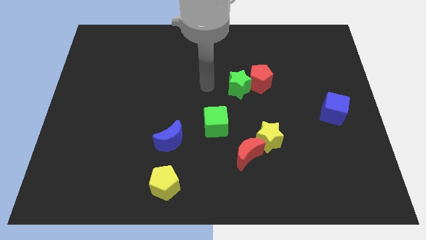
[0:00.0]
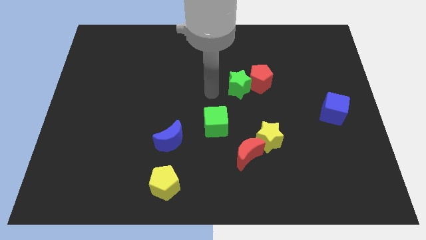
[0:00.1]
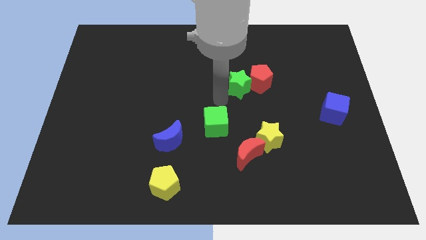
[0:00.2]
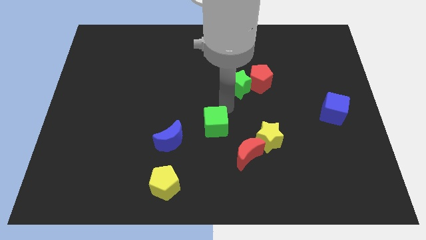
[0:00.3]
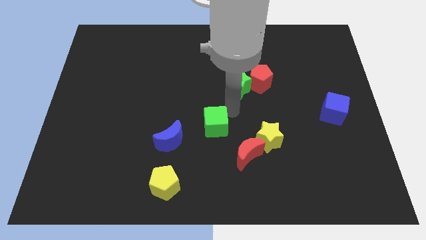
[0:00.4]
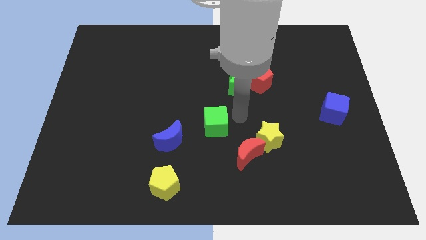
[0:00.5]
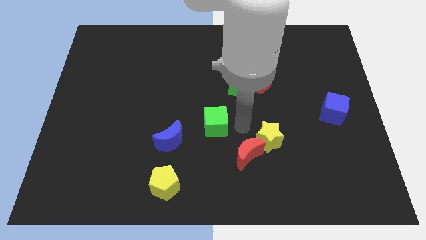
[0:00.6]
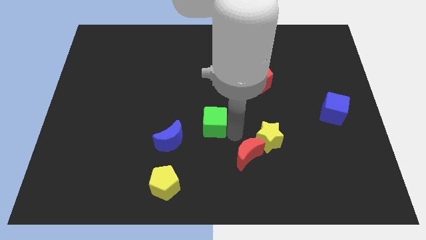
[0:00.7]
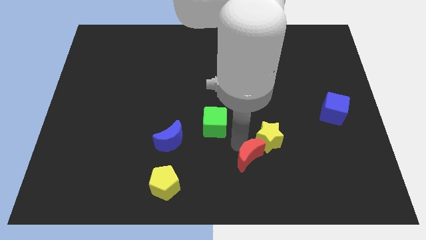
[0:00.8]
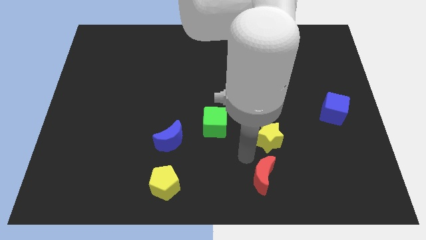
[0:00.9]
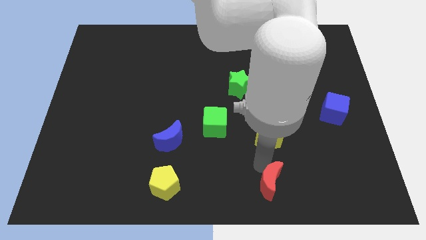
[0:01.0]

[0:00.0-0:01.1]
separate the yellow star from the red moon

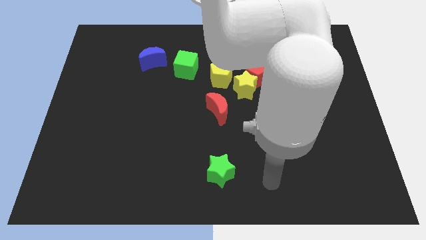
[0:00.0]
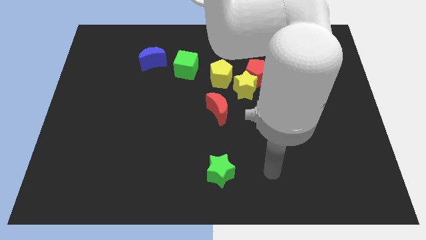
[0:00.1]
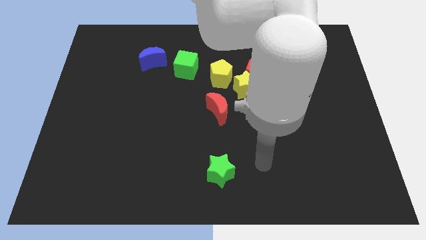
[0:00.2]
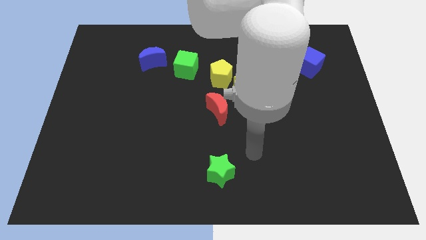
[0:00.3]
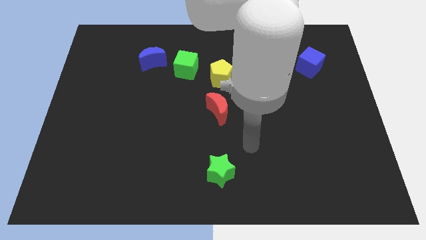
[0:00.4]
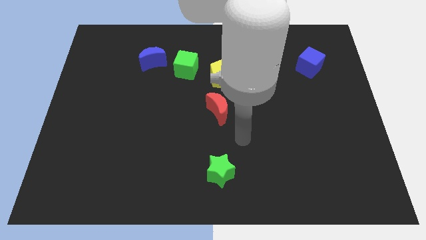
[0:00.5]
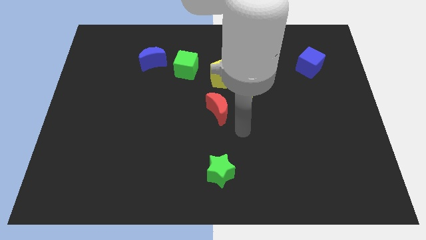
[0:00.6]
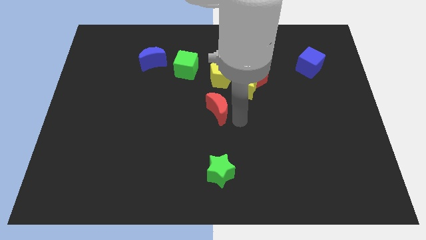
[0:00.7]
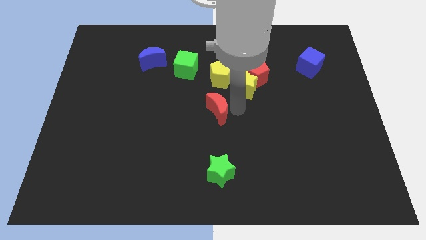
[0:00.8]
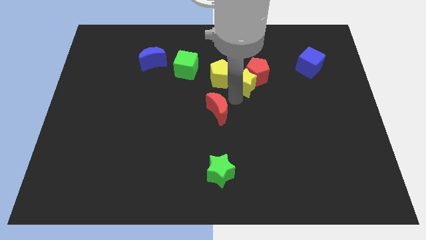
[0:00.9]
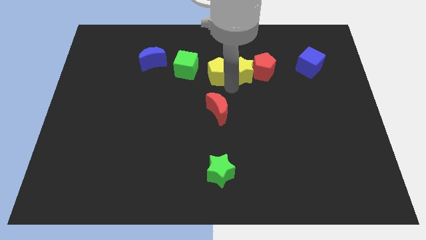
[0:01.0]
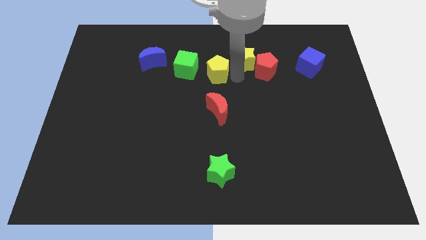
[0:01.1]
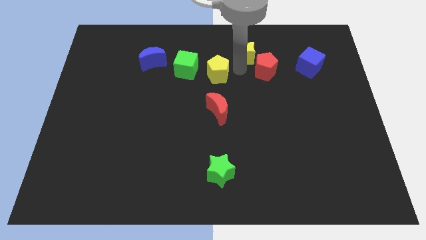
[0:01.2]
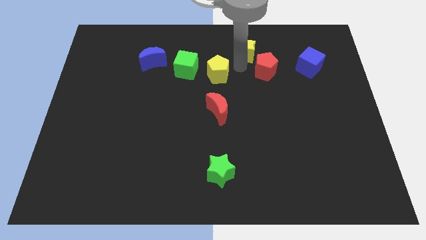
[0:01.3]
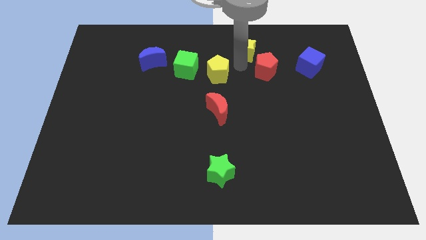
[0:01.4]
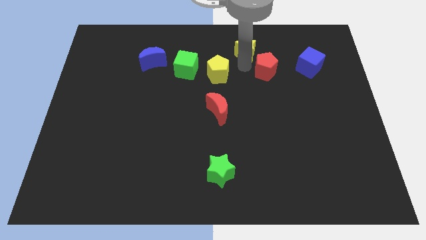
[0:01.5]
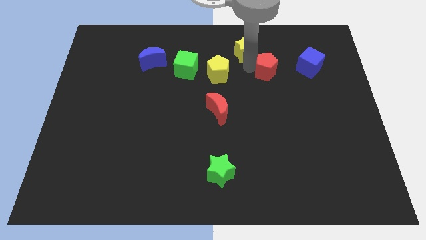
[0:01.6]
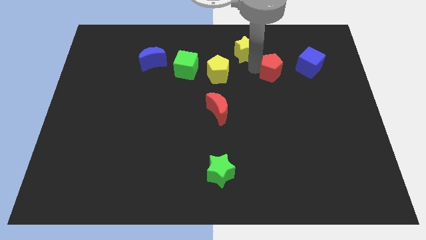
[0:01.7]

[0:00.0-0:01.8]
pull the red pentagon apart from the yellow star and yellow pentagon

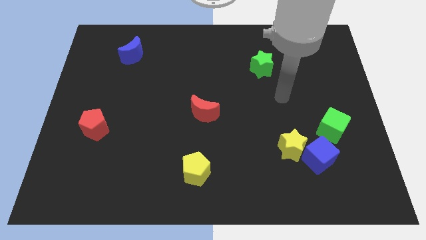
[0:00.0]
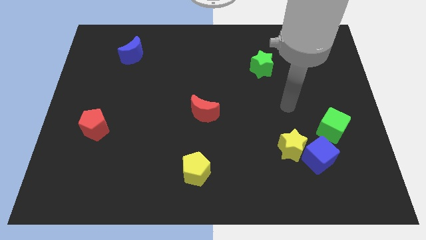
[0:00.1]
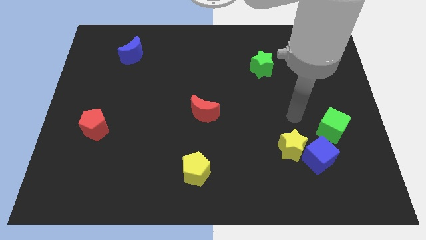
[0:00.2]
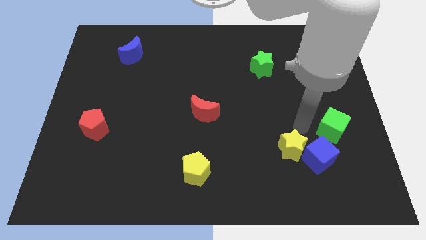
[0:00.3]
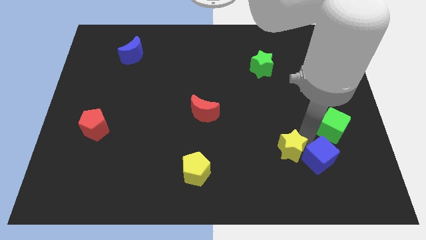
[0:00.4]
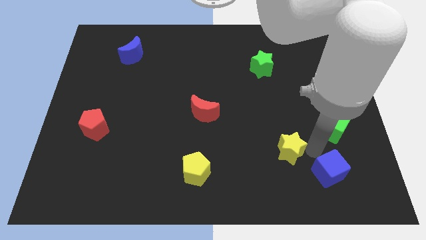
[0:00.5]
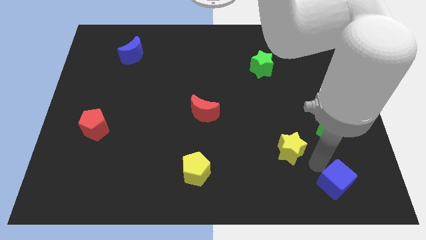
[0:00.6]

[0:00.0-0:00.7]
separate the yellow star from the blue cube

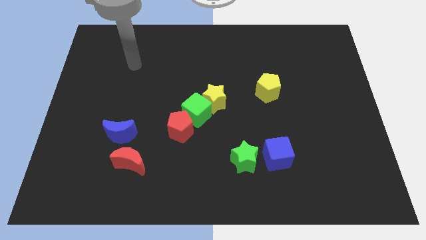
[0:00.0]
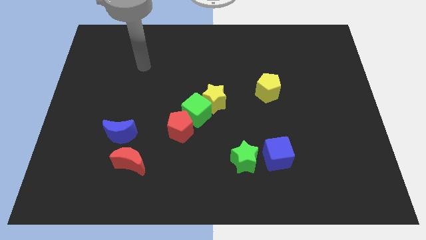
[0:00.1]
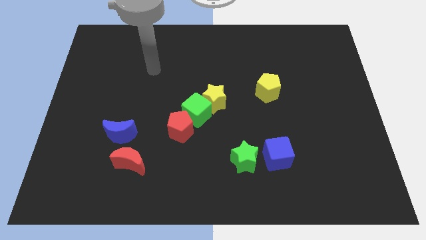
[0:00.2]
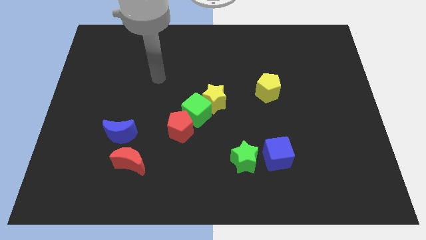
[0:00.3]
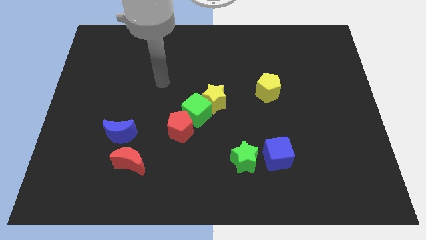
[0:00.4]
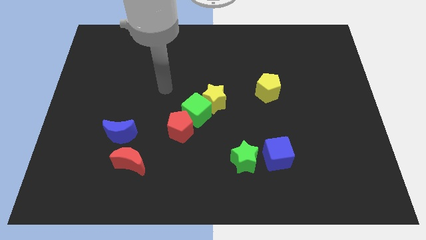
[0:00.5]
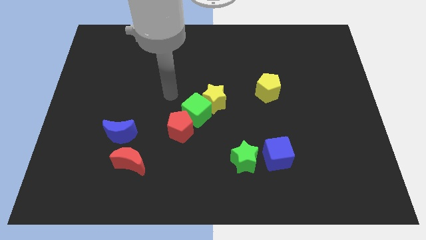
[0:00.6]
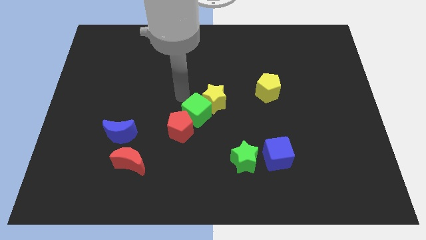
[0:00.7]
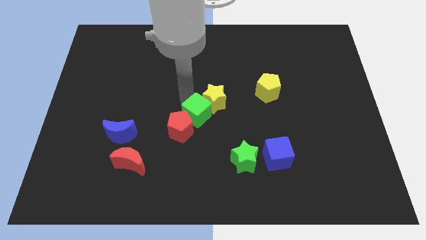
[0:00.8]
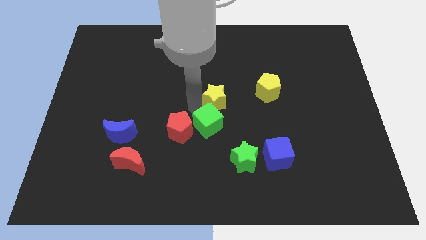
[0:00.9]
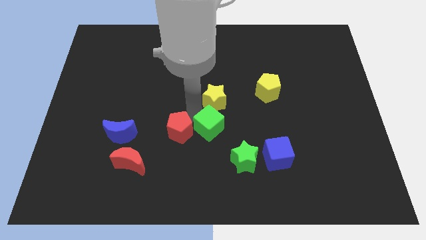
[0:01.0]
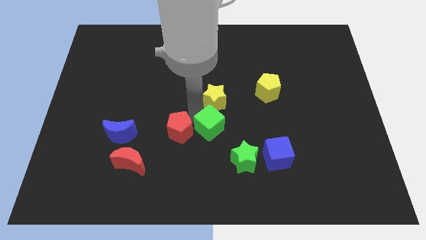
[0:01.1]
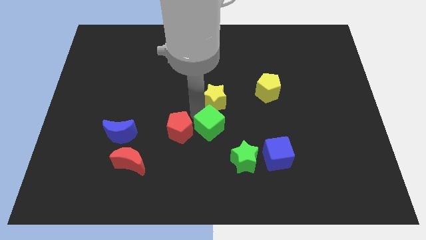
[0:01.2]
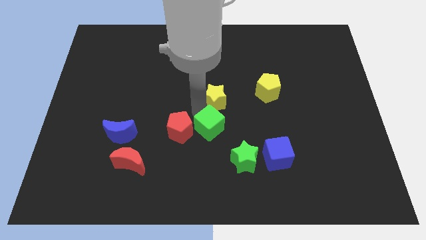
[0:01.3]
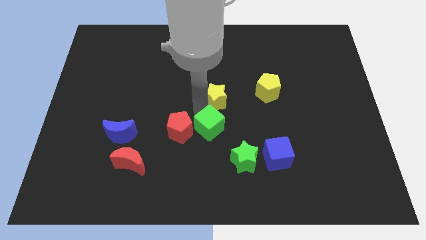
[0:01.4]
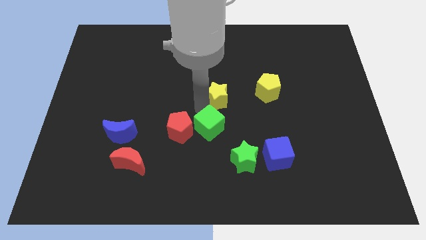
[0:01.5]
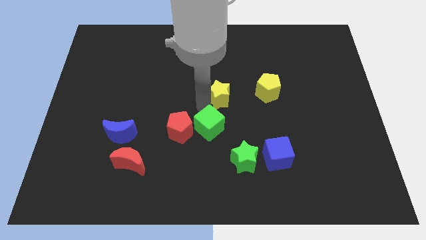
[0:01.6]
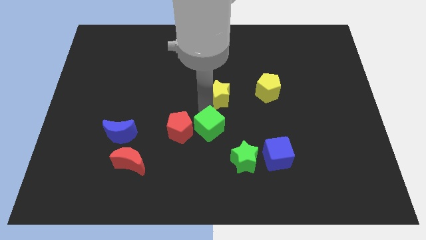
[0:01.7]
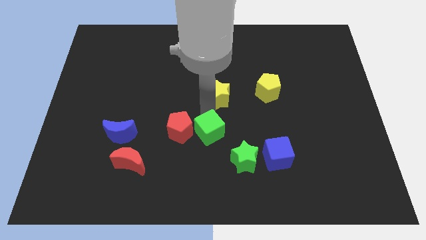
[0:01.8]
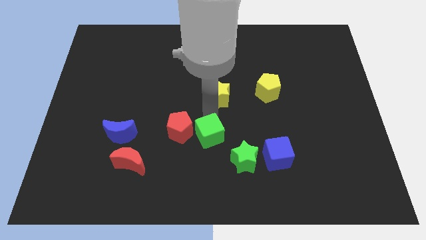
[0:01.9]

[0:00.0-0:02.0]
separate the yellow star from the green cube

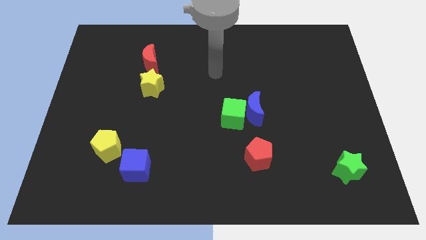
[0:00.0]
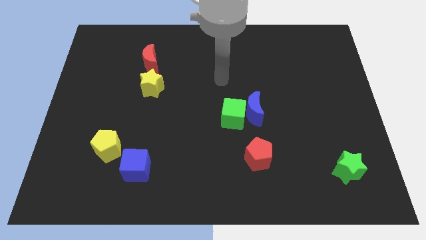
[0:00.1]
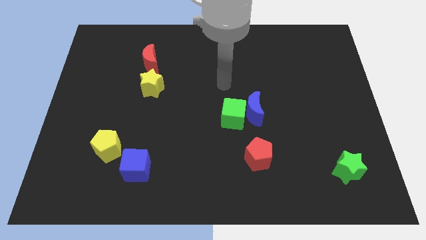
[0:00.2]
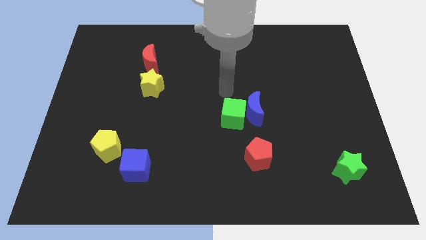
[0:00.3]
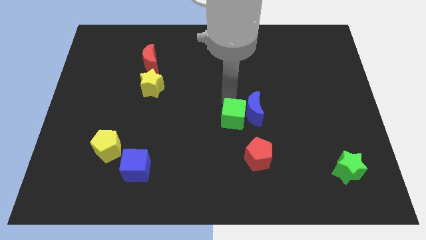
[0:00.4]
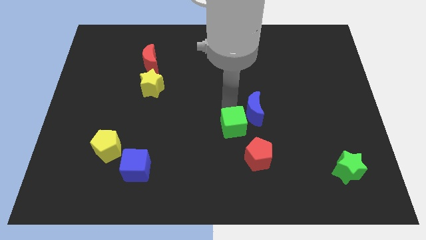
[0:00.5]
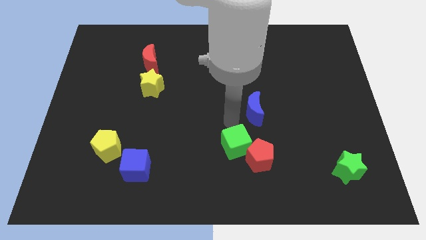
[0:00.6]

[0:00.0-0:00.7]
separate the blue moon from the green cube

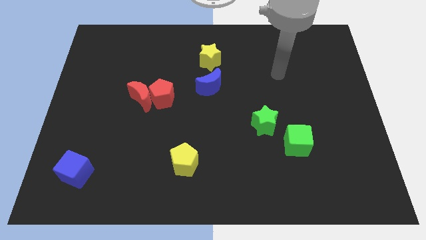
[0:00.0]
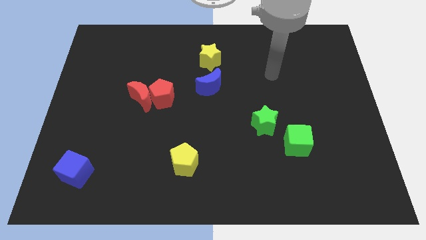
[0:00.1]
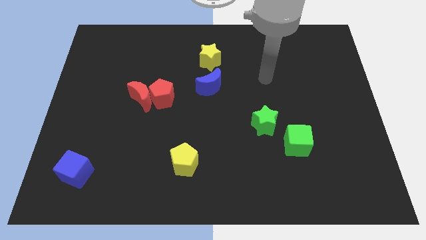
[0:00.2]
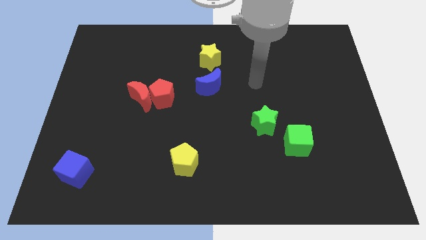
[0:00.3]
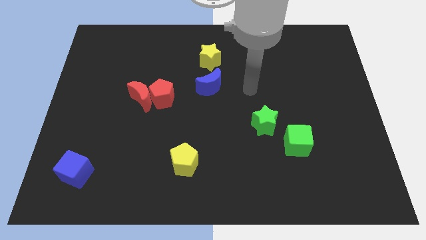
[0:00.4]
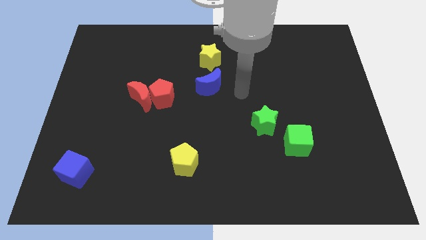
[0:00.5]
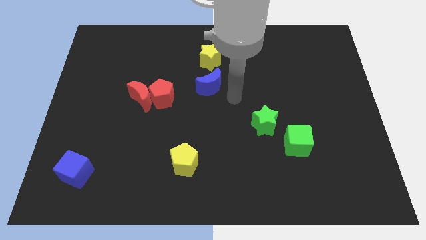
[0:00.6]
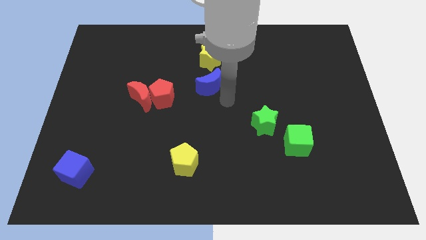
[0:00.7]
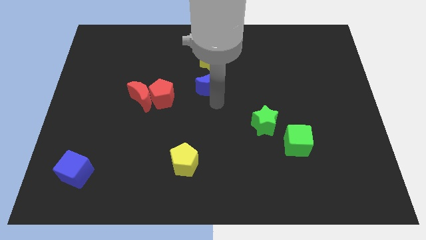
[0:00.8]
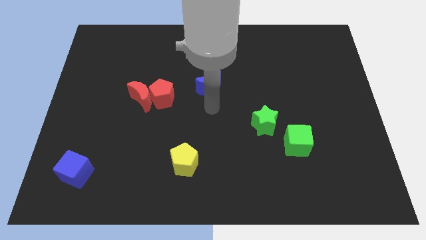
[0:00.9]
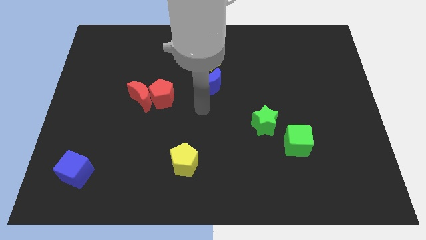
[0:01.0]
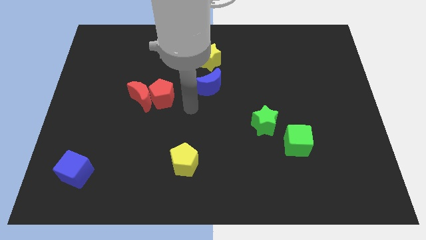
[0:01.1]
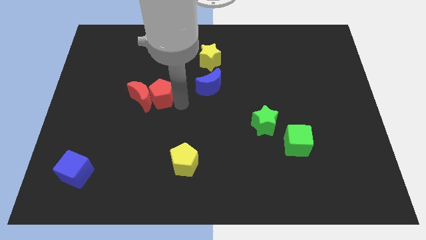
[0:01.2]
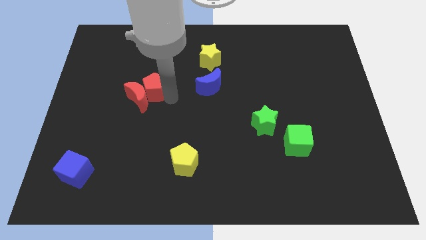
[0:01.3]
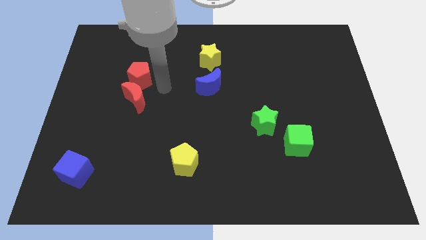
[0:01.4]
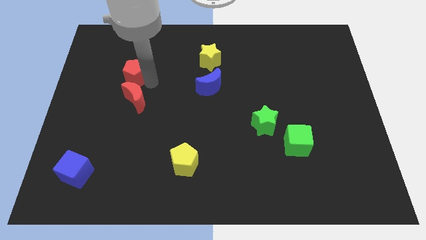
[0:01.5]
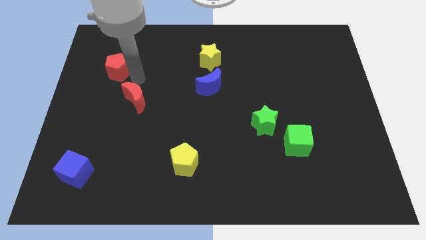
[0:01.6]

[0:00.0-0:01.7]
separate the red moon from the red pentagon

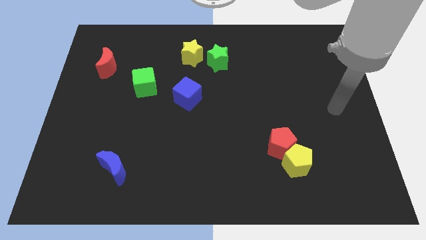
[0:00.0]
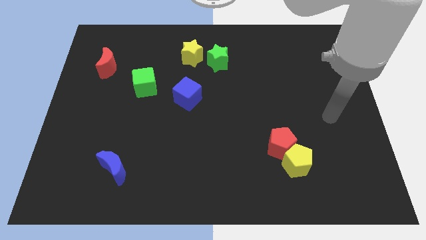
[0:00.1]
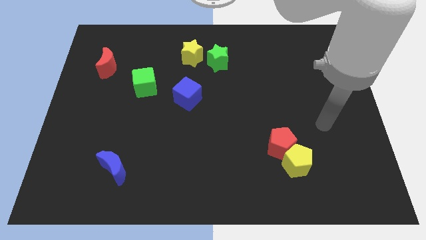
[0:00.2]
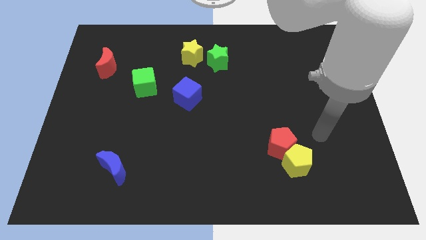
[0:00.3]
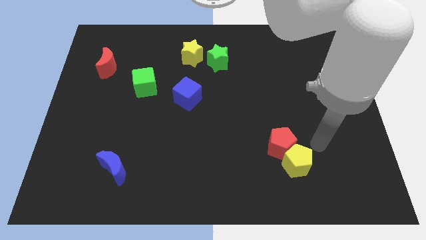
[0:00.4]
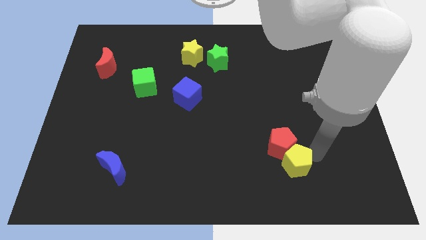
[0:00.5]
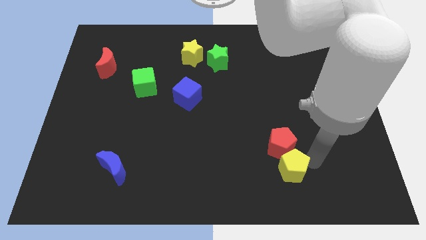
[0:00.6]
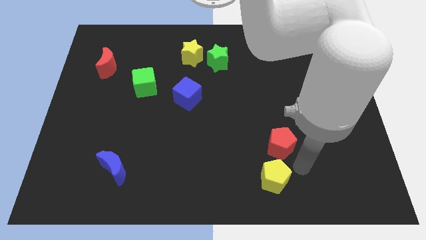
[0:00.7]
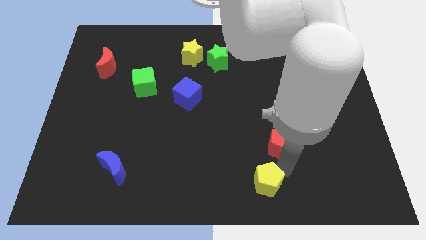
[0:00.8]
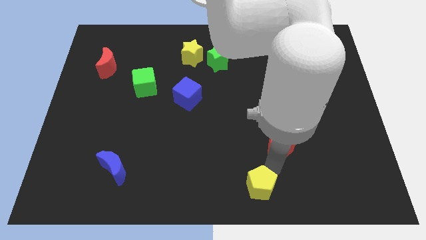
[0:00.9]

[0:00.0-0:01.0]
pull the red pentagon apart from the yellow pentagon

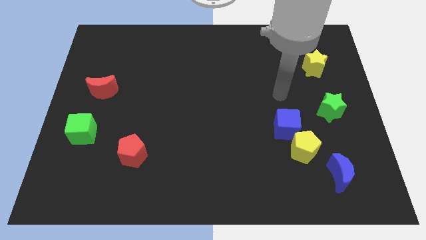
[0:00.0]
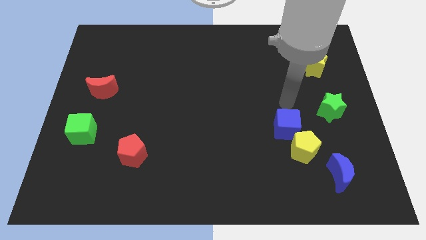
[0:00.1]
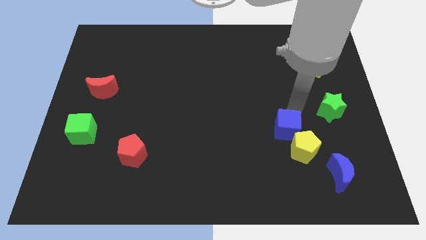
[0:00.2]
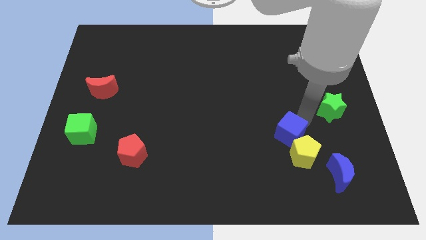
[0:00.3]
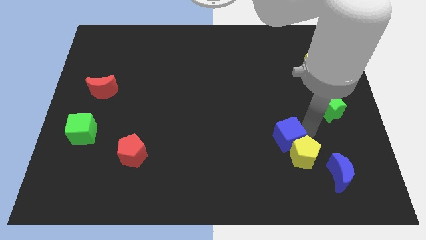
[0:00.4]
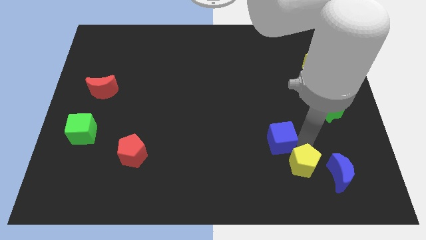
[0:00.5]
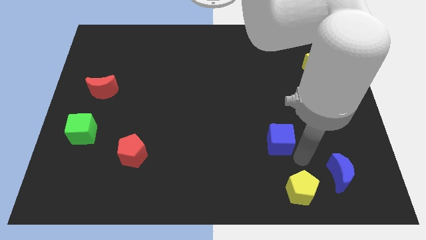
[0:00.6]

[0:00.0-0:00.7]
pull the blue cube apart from the yellow pentagon
